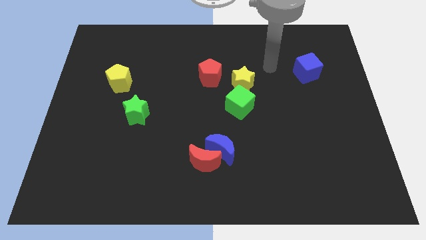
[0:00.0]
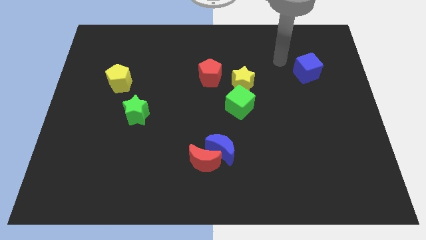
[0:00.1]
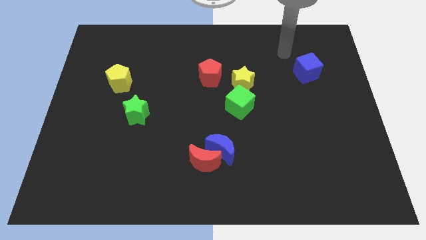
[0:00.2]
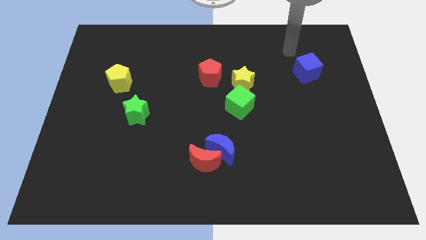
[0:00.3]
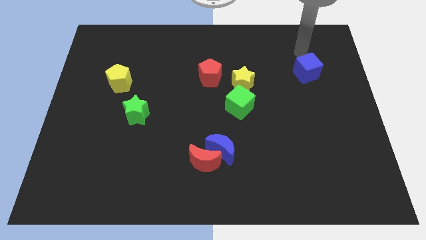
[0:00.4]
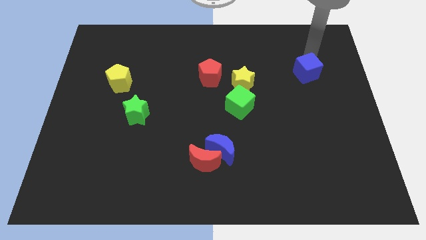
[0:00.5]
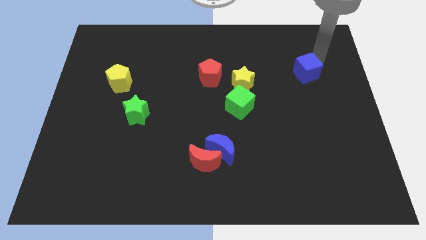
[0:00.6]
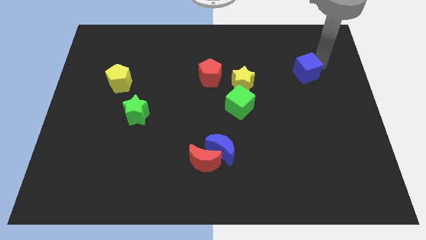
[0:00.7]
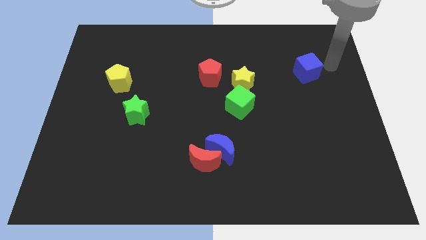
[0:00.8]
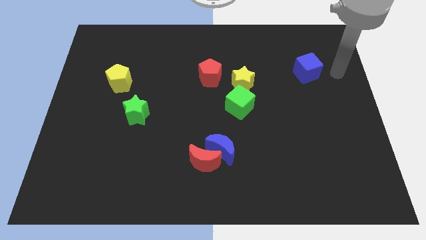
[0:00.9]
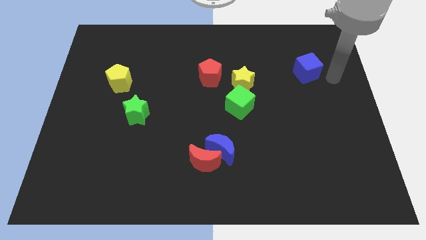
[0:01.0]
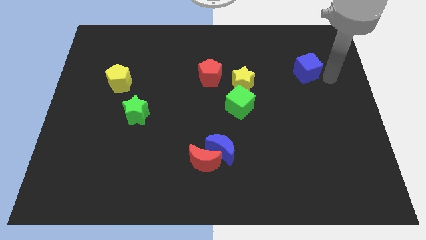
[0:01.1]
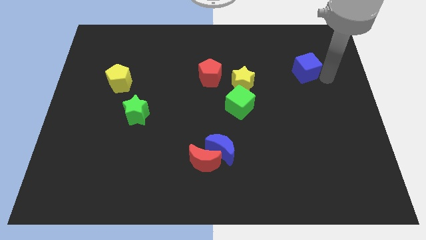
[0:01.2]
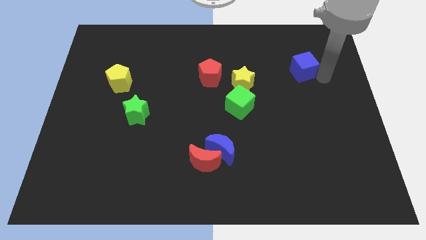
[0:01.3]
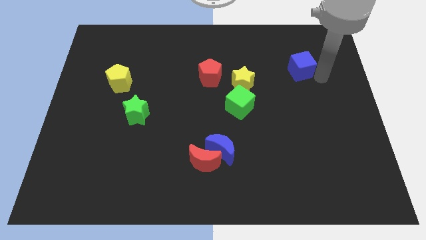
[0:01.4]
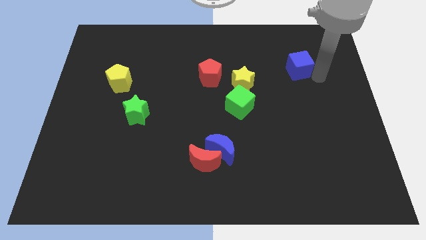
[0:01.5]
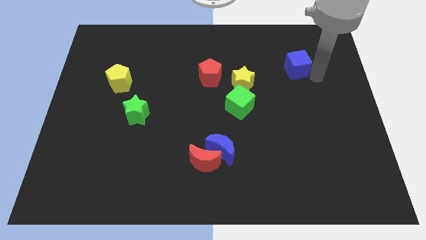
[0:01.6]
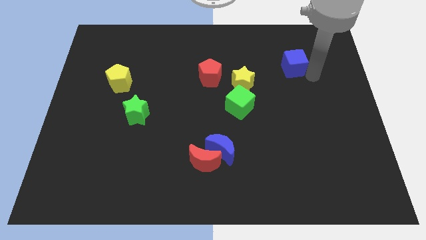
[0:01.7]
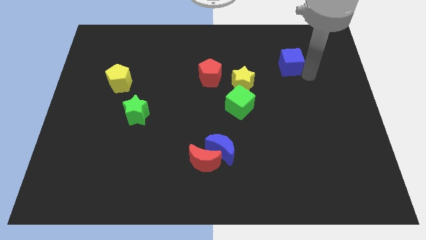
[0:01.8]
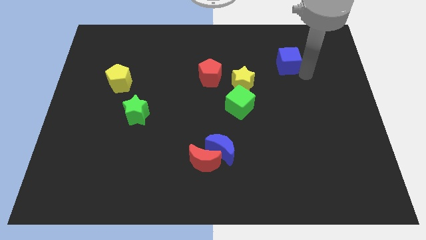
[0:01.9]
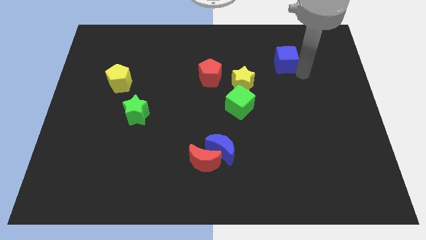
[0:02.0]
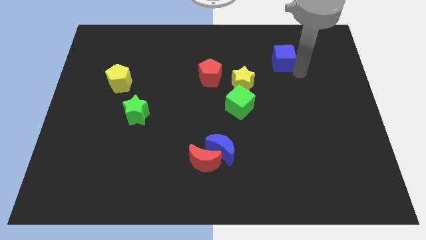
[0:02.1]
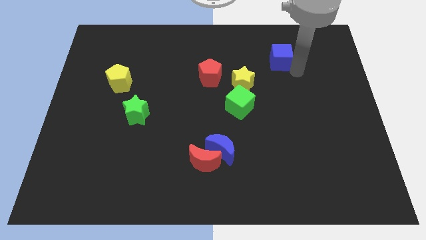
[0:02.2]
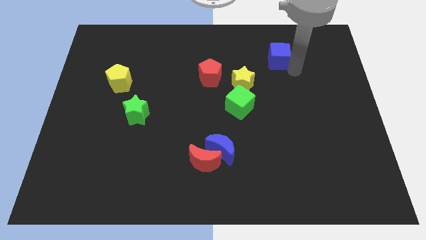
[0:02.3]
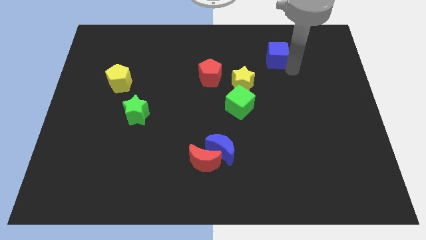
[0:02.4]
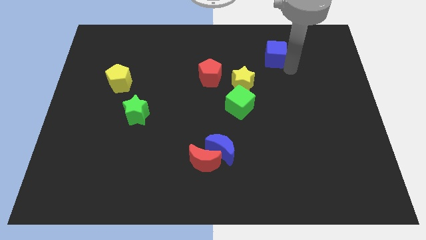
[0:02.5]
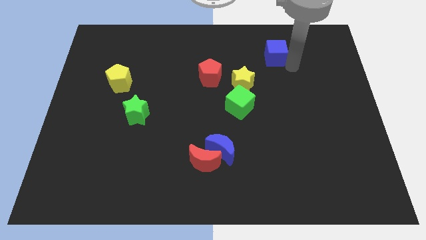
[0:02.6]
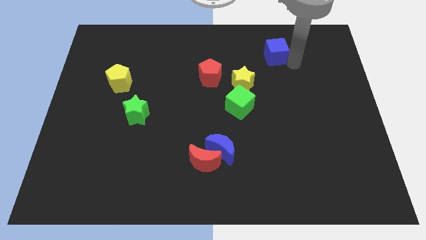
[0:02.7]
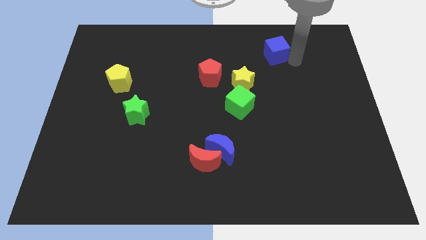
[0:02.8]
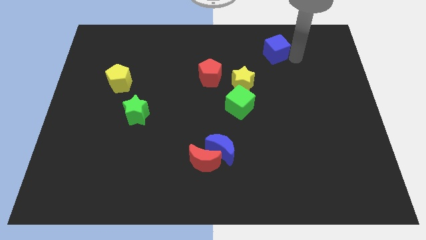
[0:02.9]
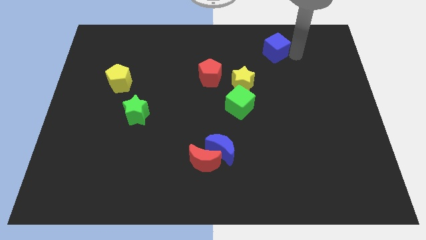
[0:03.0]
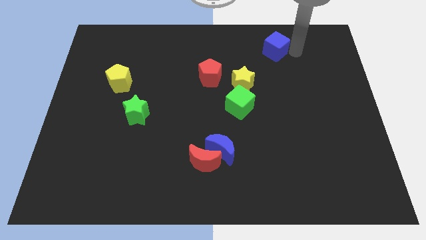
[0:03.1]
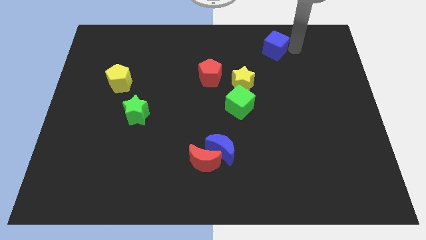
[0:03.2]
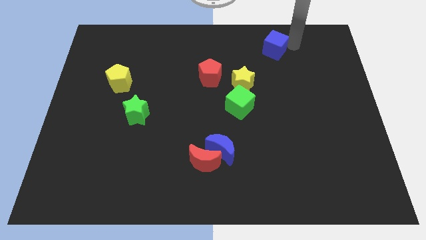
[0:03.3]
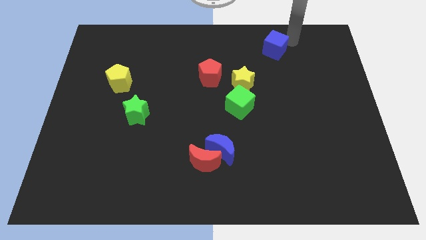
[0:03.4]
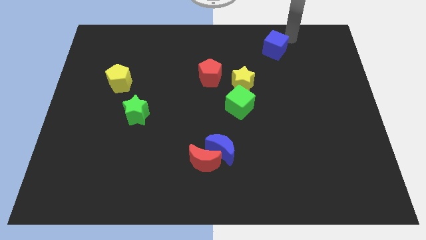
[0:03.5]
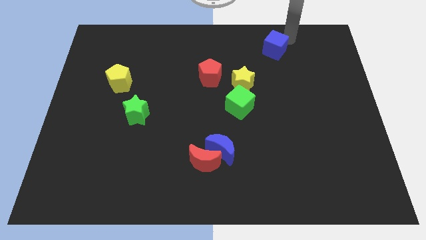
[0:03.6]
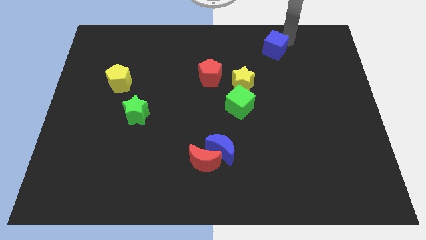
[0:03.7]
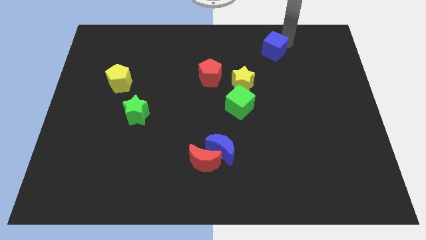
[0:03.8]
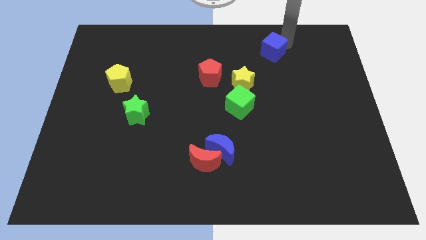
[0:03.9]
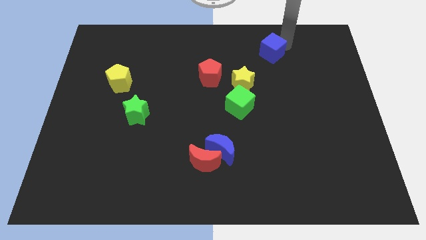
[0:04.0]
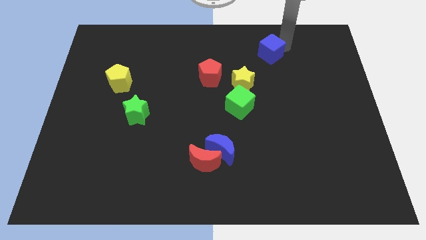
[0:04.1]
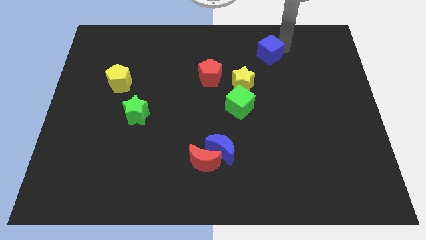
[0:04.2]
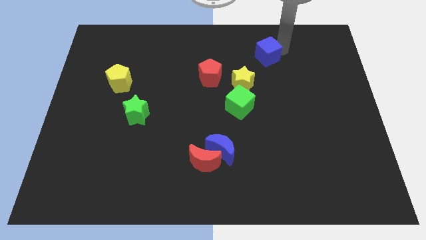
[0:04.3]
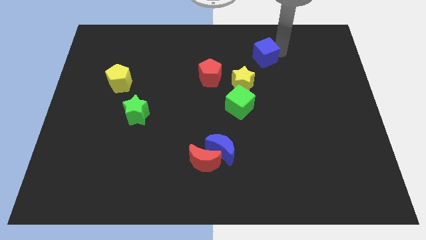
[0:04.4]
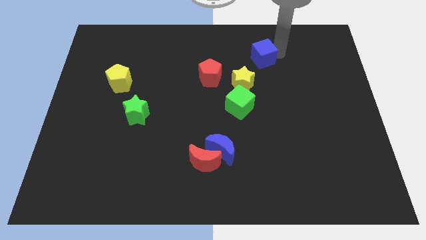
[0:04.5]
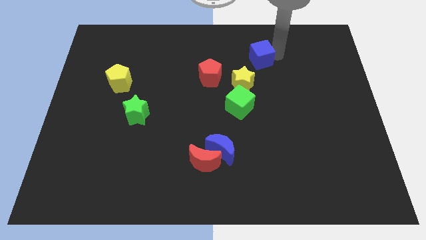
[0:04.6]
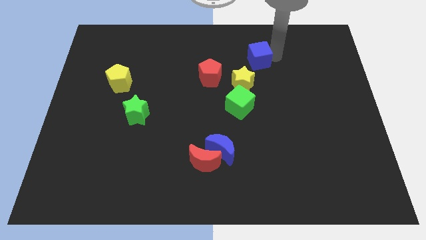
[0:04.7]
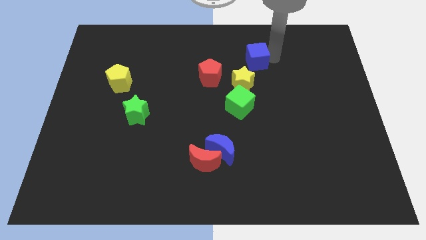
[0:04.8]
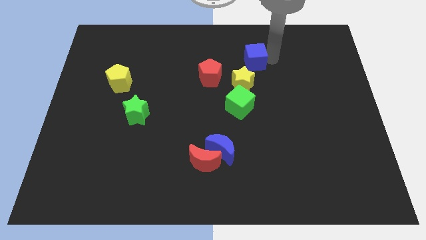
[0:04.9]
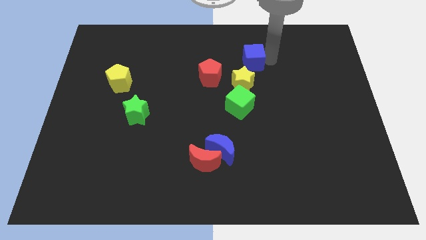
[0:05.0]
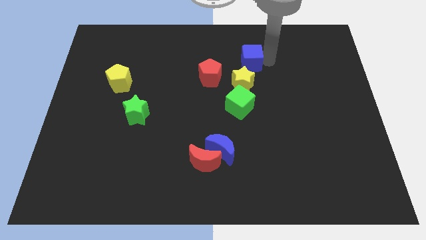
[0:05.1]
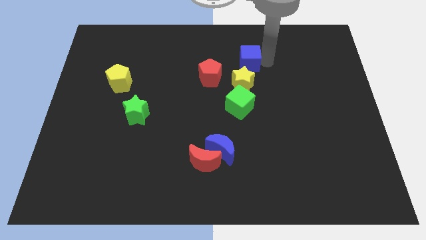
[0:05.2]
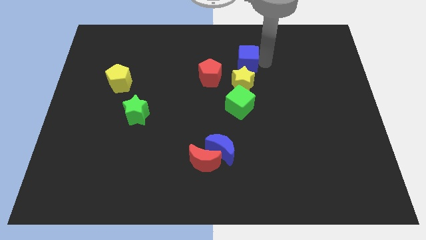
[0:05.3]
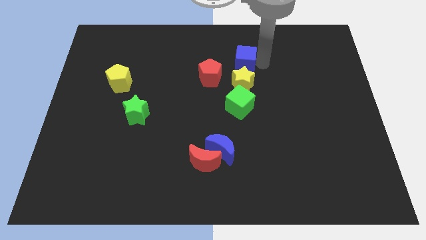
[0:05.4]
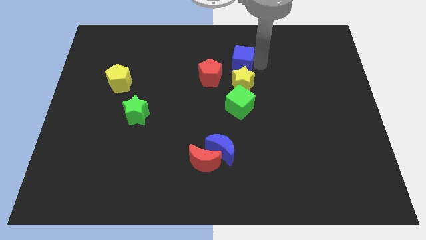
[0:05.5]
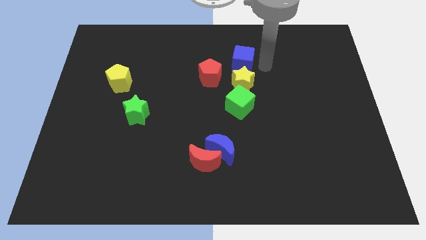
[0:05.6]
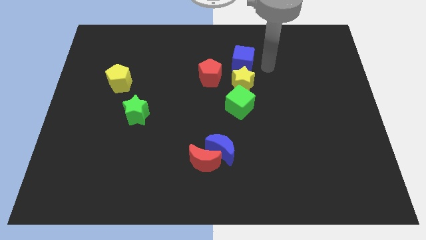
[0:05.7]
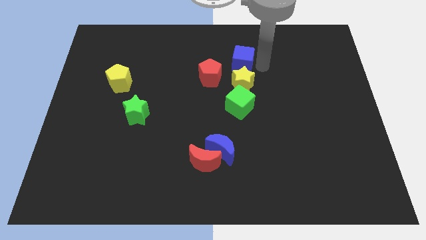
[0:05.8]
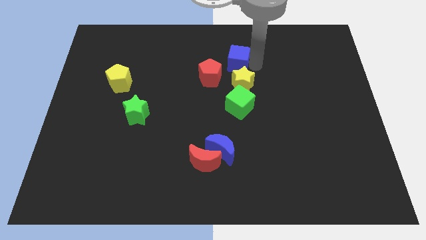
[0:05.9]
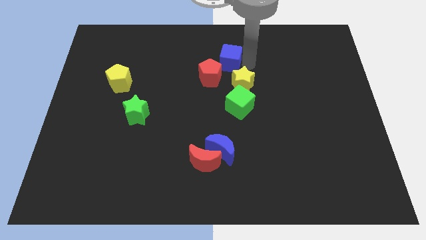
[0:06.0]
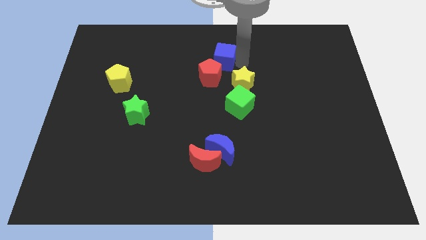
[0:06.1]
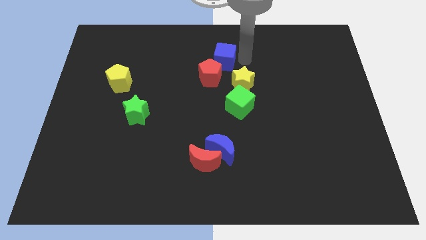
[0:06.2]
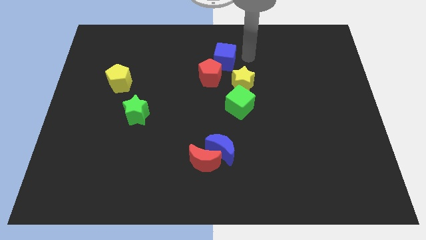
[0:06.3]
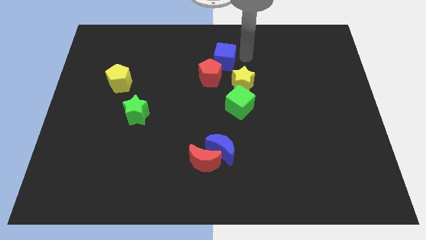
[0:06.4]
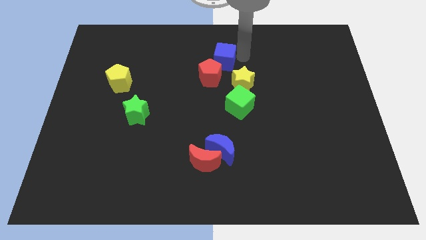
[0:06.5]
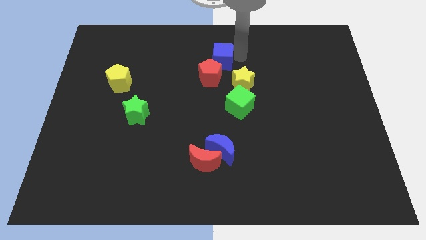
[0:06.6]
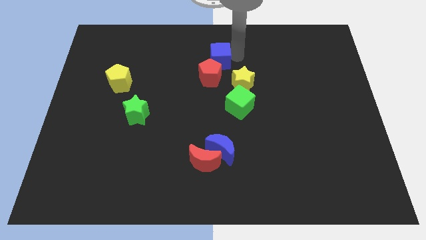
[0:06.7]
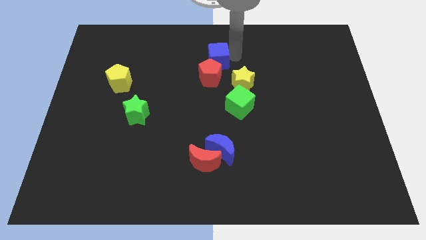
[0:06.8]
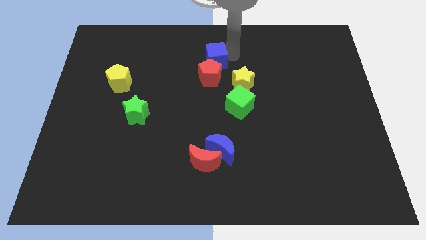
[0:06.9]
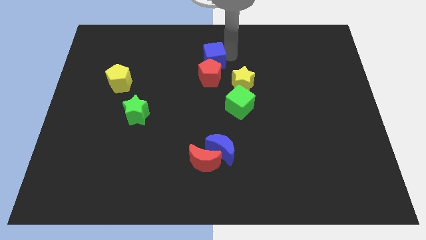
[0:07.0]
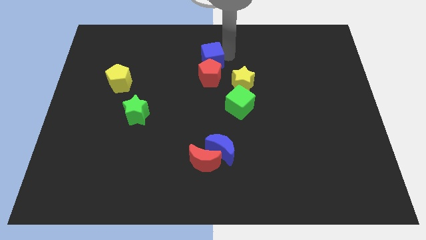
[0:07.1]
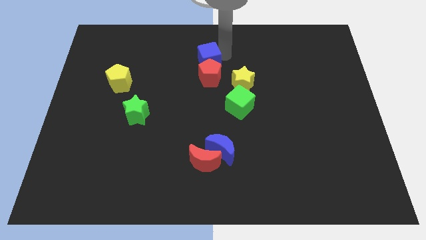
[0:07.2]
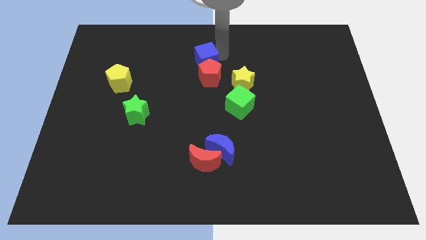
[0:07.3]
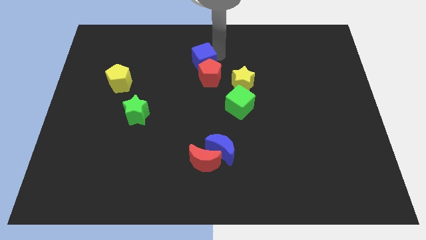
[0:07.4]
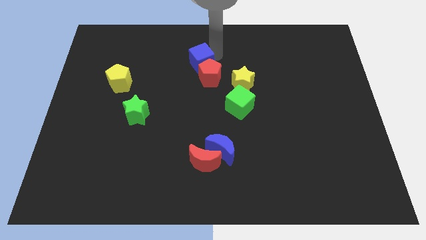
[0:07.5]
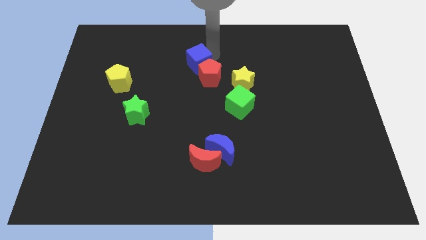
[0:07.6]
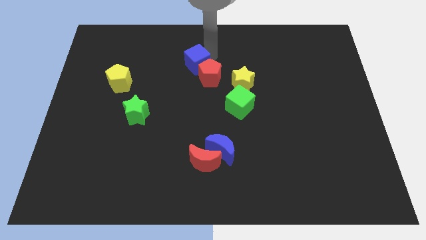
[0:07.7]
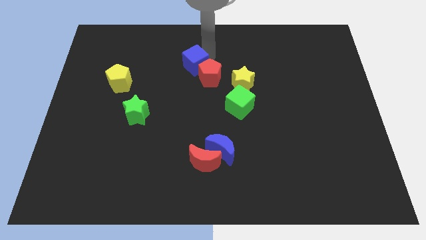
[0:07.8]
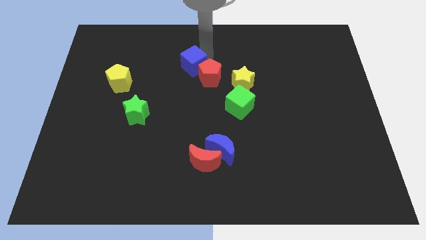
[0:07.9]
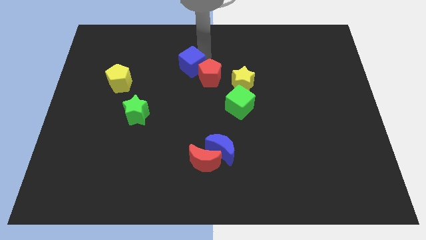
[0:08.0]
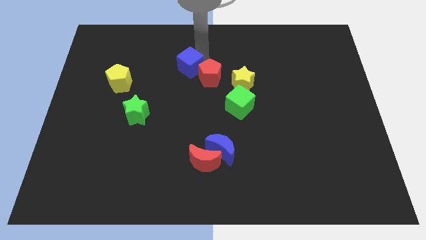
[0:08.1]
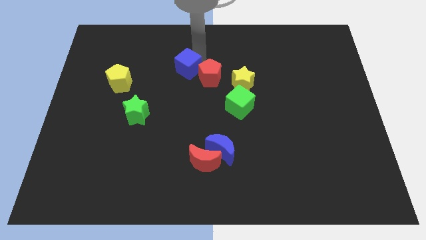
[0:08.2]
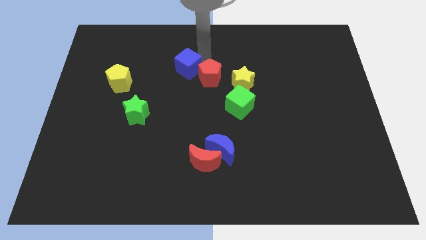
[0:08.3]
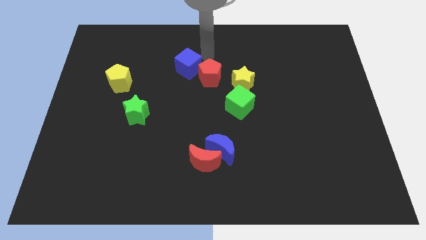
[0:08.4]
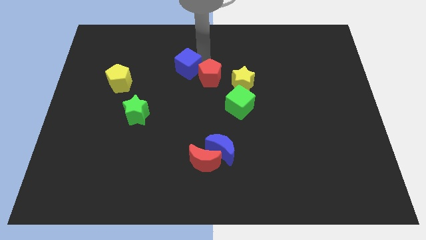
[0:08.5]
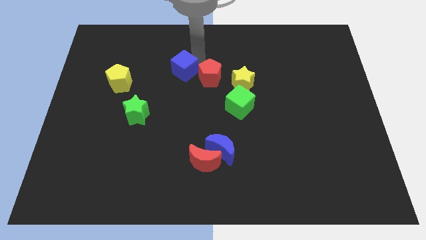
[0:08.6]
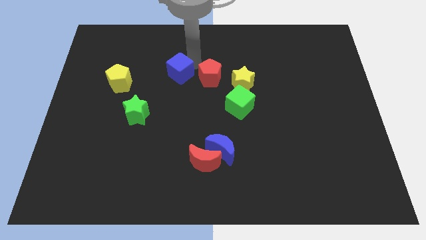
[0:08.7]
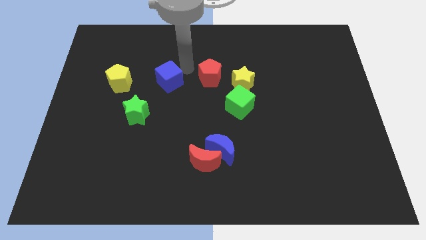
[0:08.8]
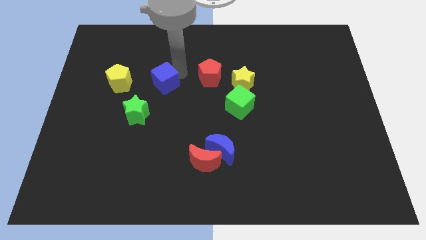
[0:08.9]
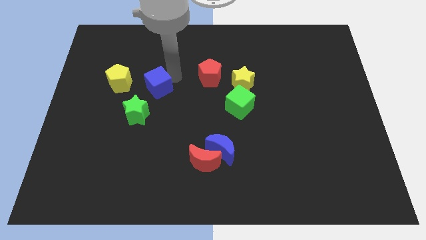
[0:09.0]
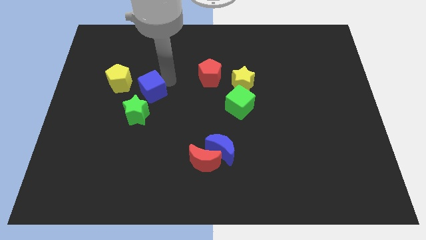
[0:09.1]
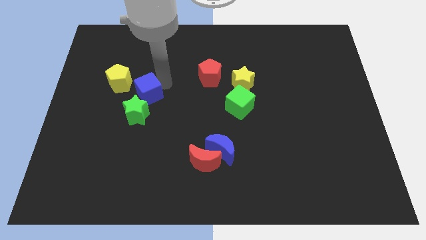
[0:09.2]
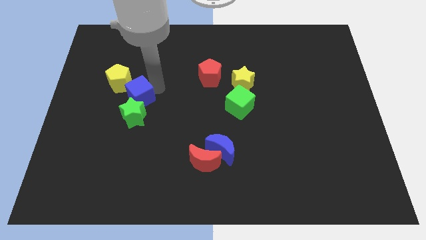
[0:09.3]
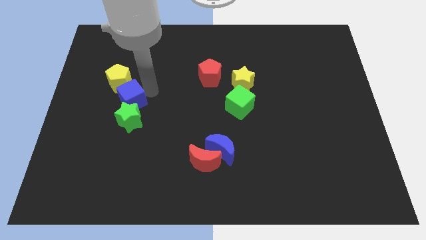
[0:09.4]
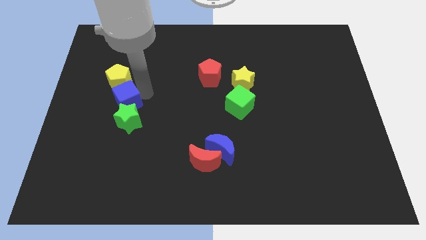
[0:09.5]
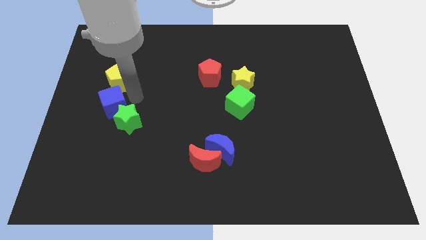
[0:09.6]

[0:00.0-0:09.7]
put the blue cube to the left of the green star
